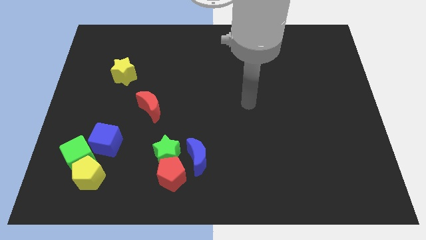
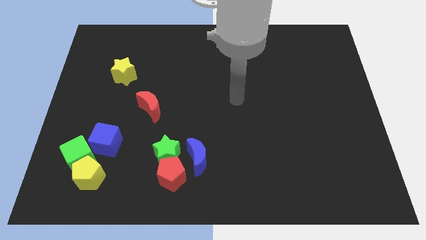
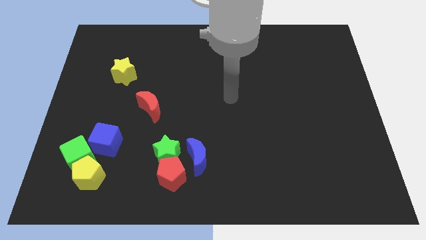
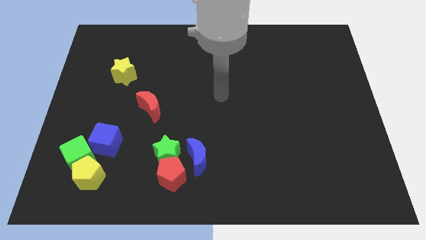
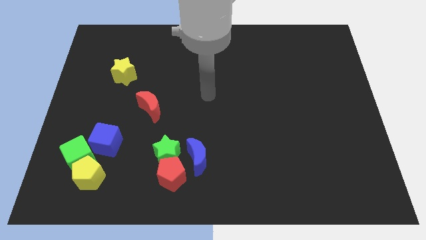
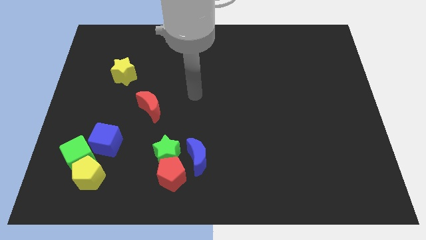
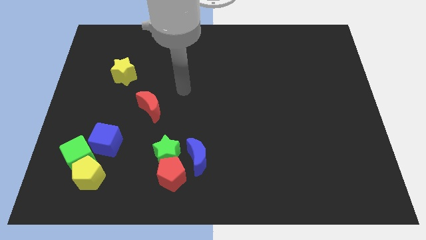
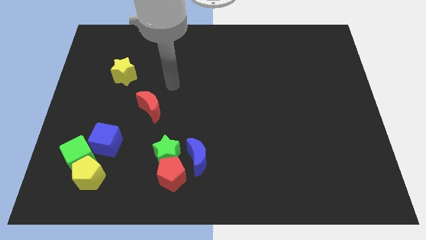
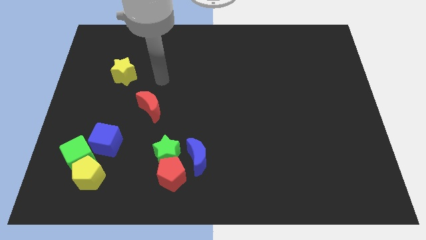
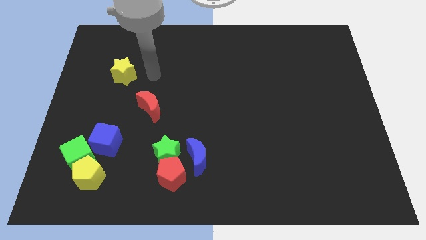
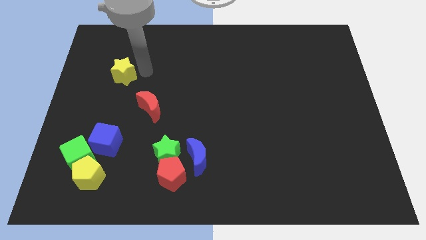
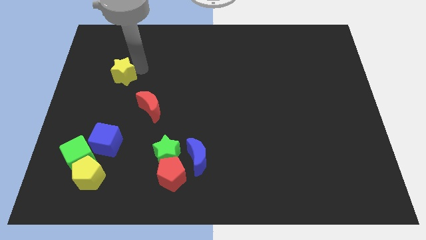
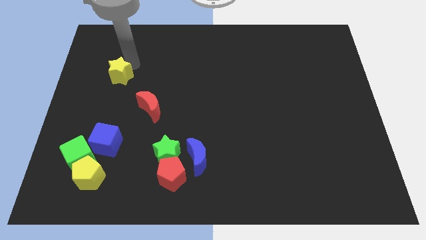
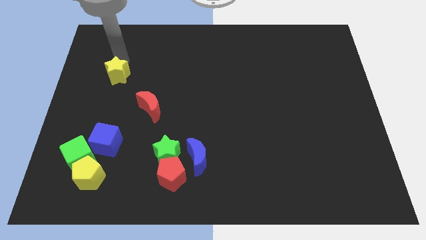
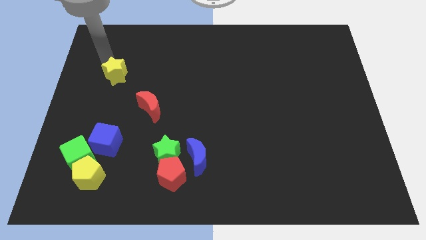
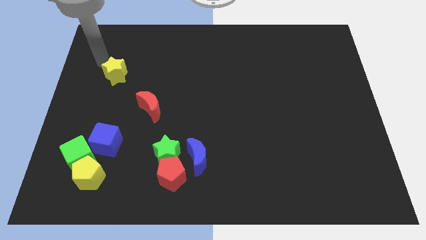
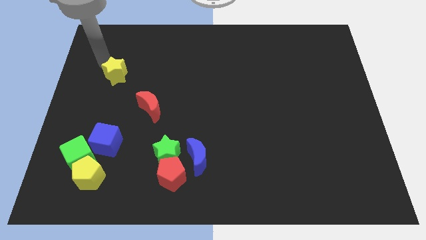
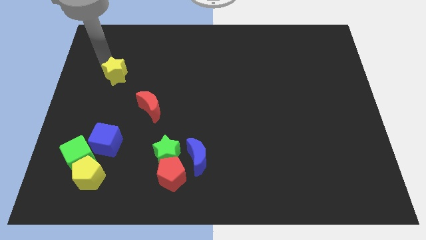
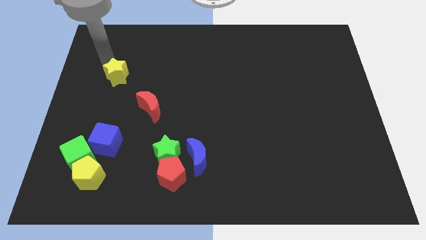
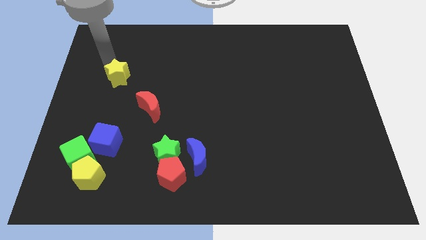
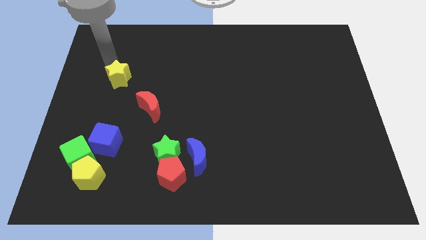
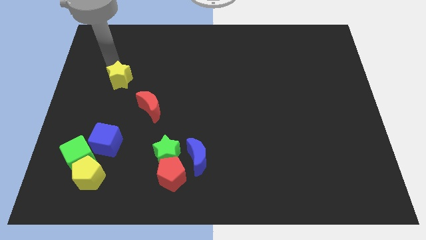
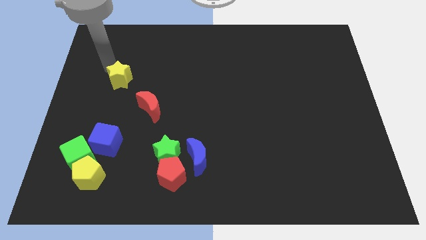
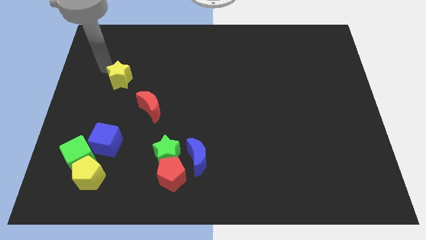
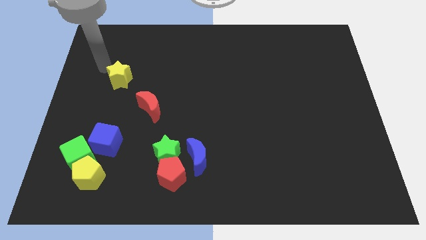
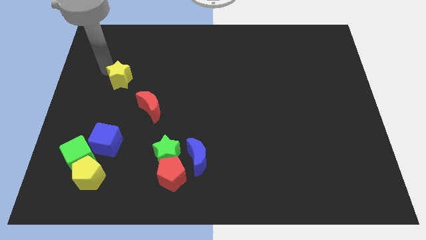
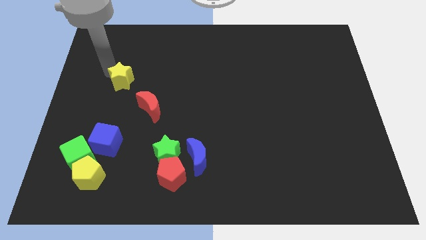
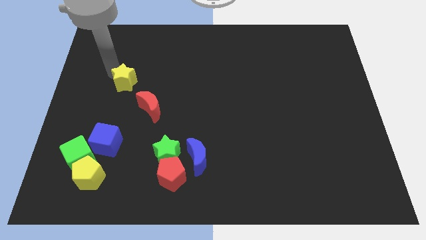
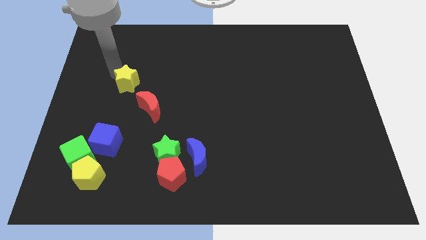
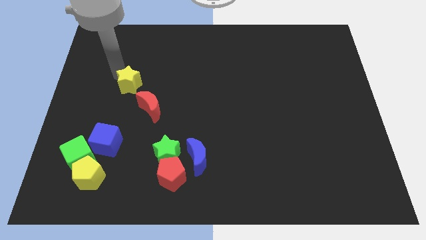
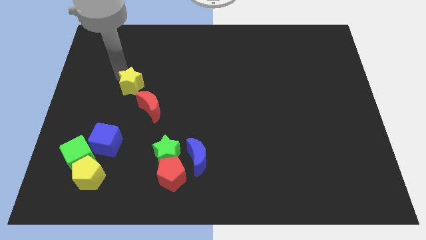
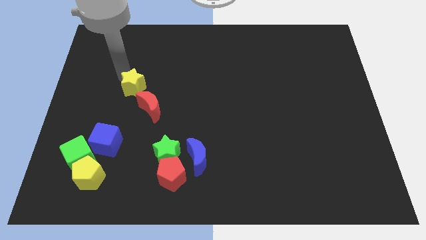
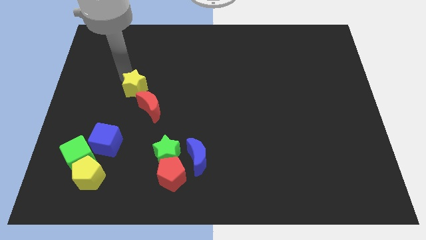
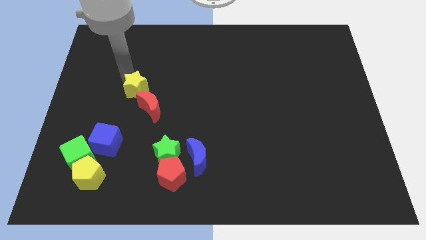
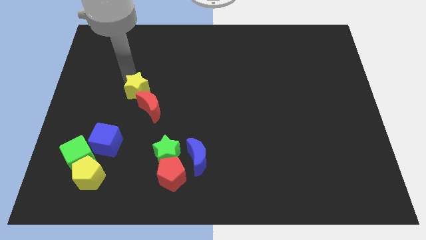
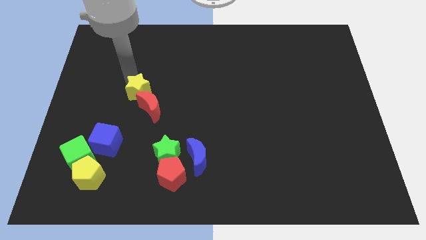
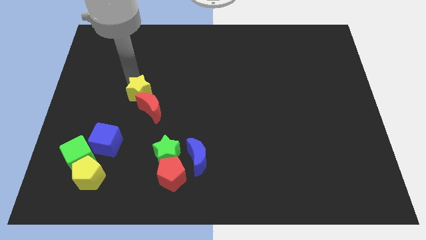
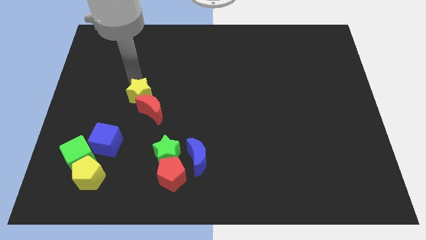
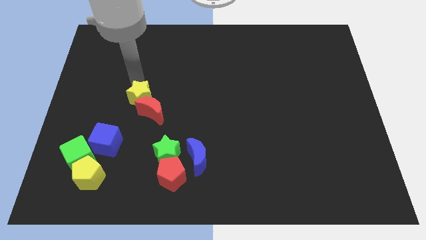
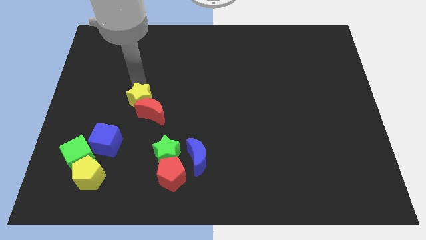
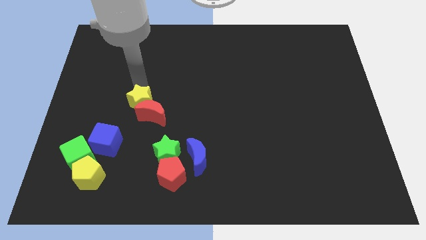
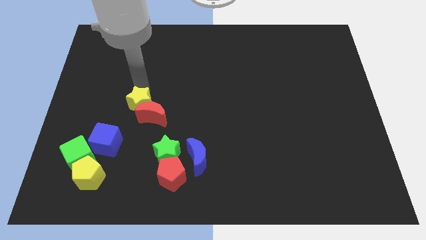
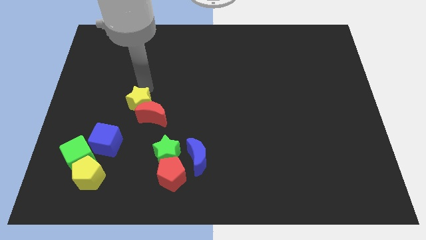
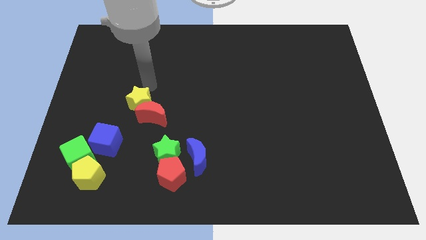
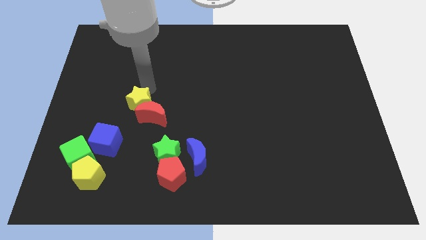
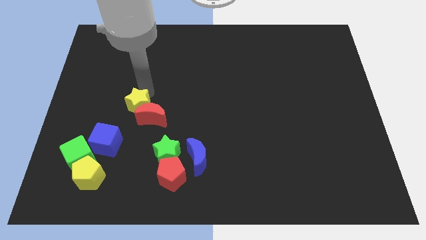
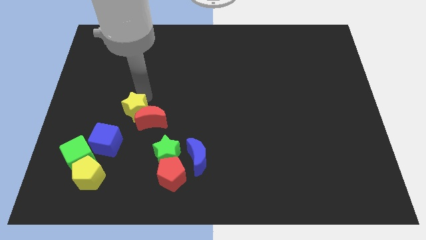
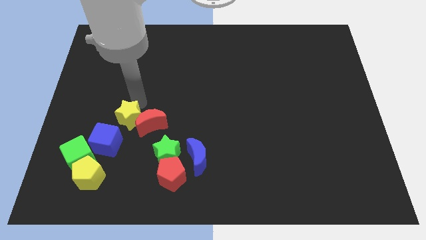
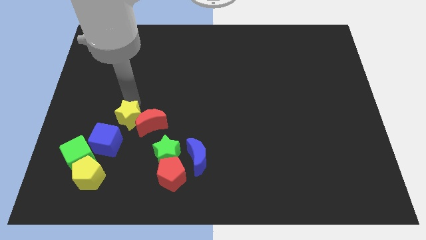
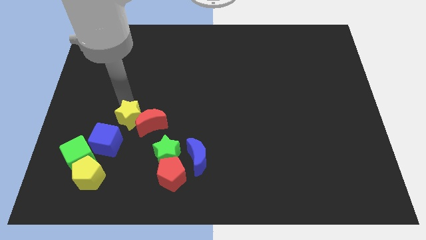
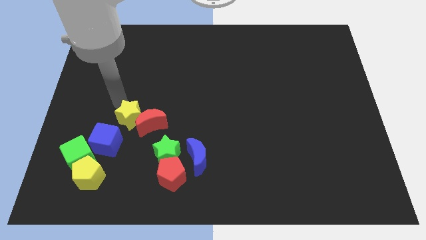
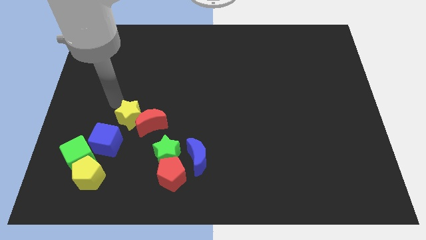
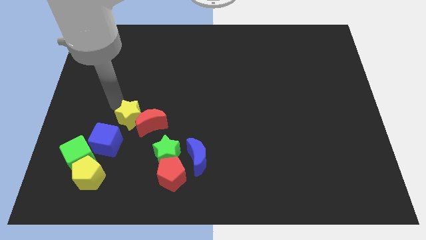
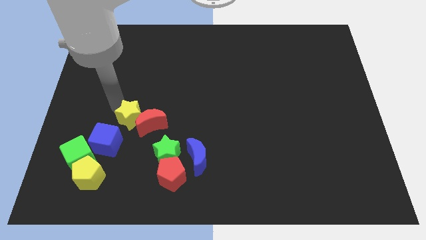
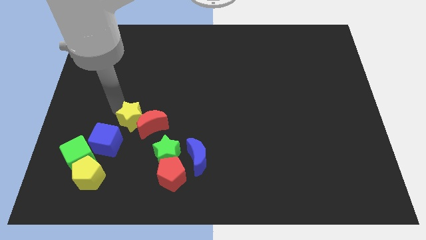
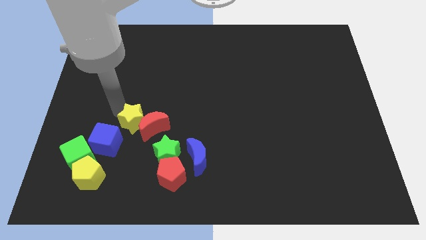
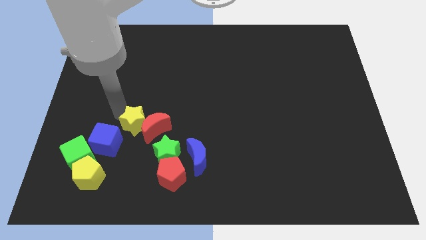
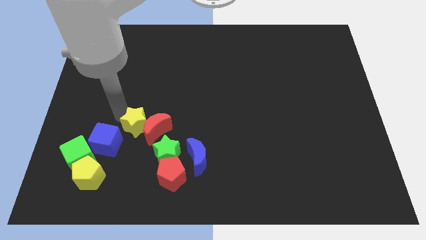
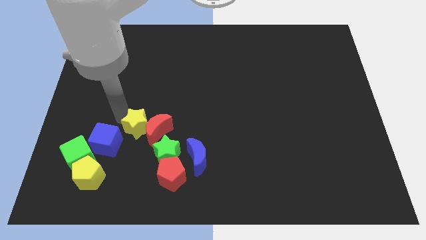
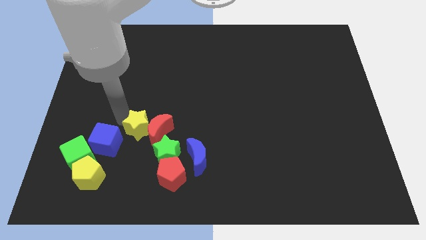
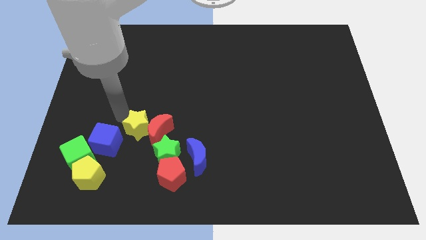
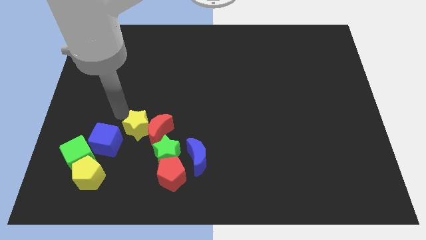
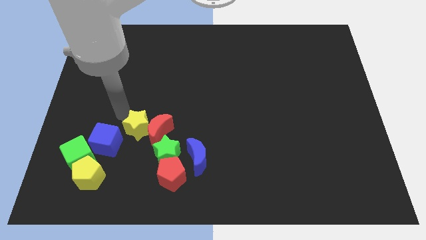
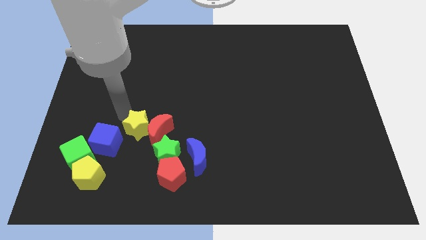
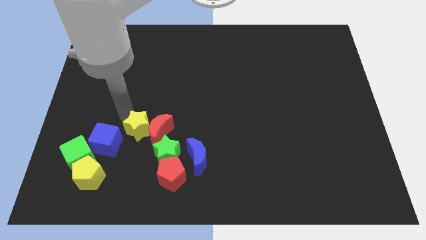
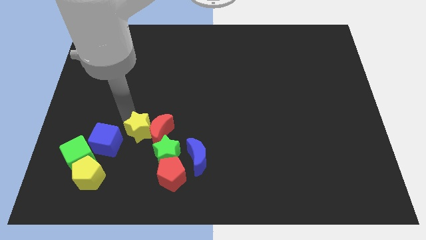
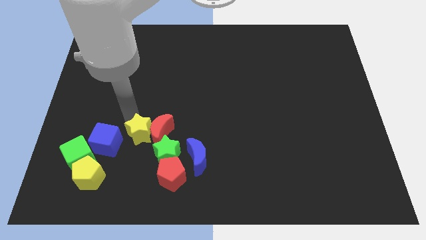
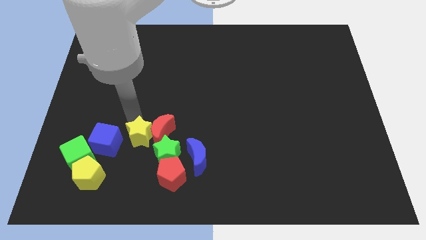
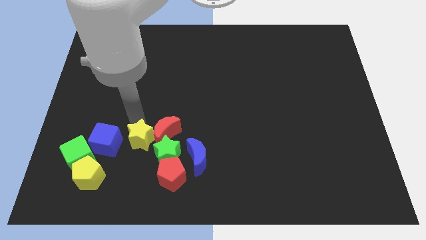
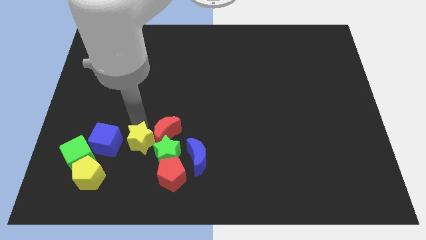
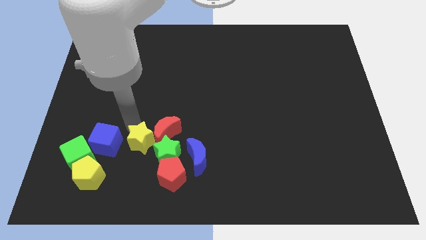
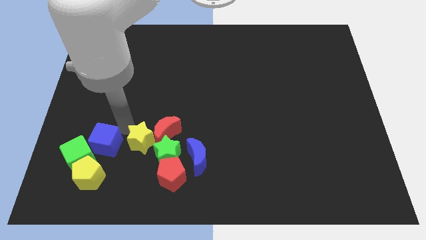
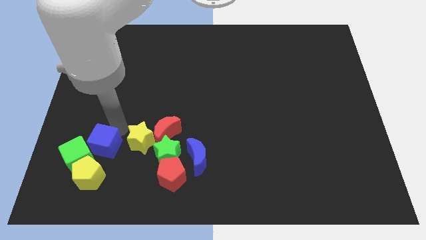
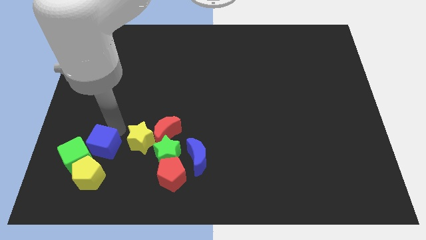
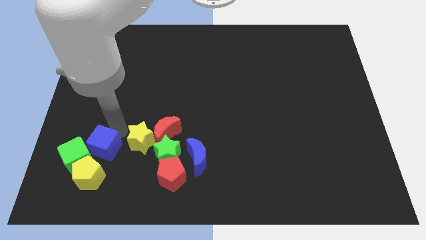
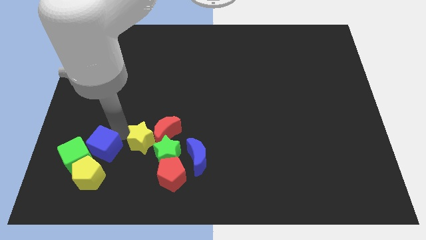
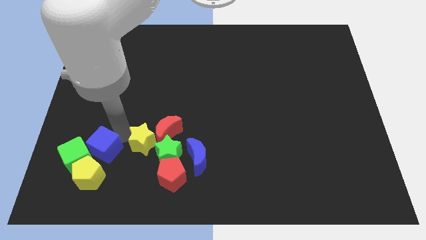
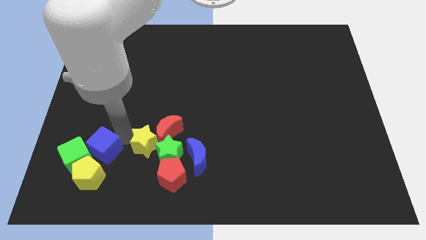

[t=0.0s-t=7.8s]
push the yellow star towards the green star

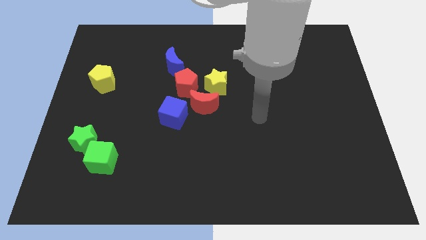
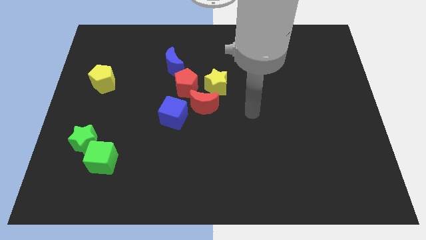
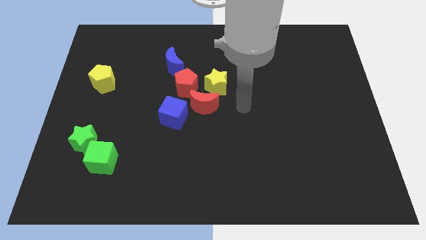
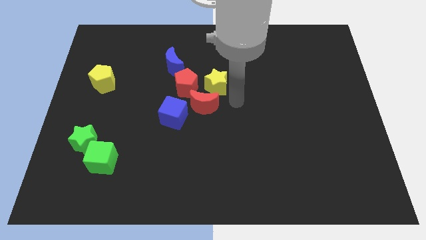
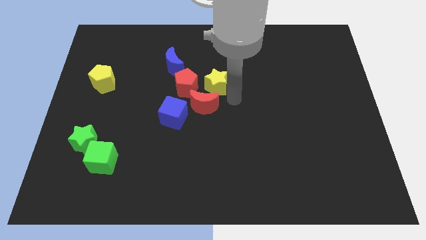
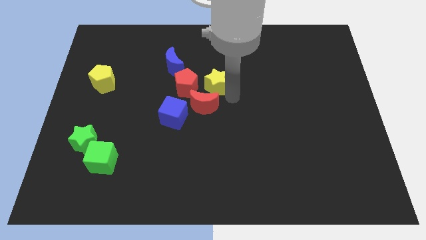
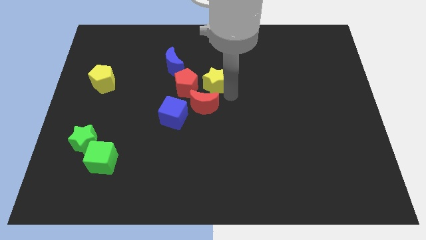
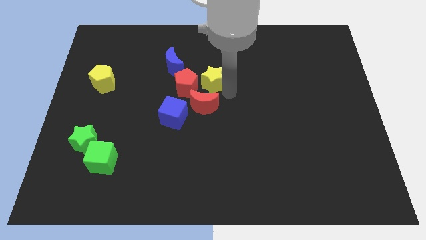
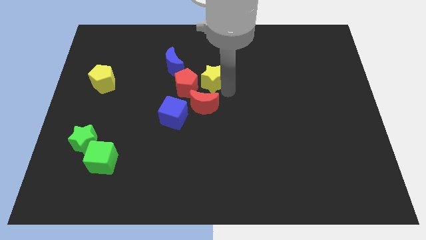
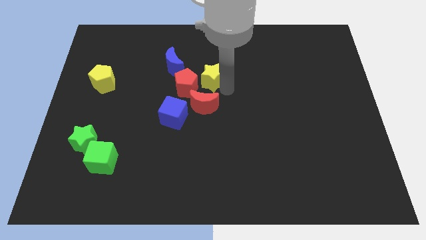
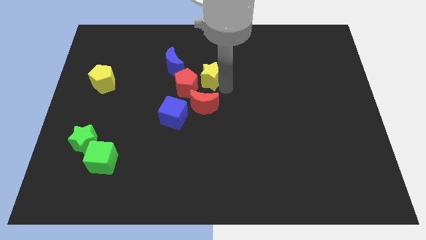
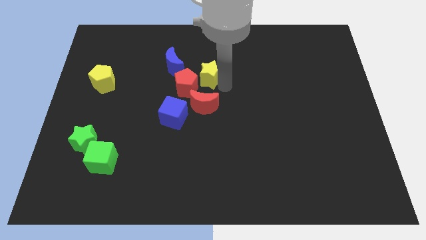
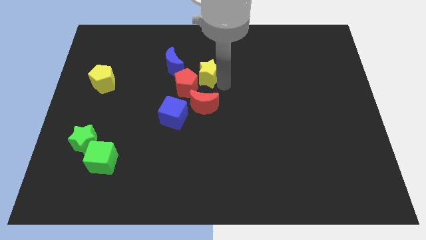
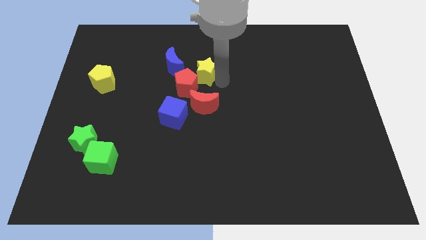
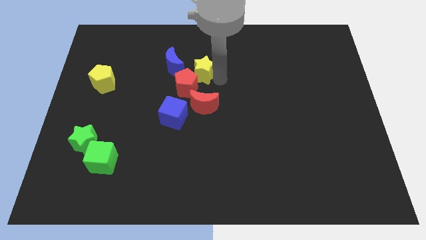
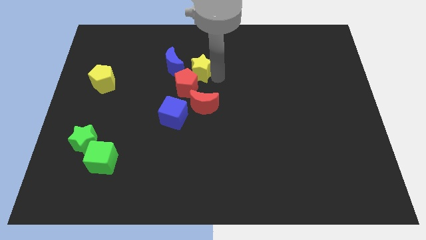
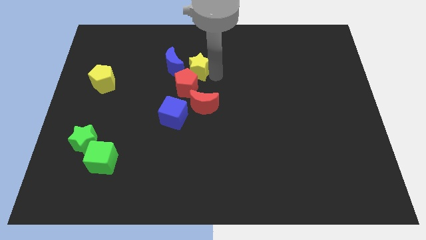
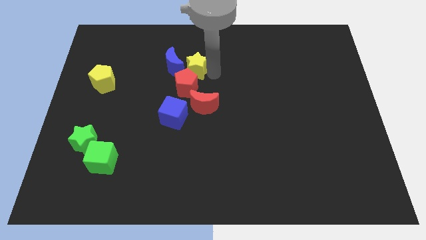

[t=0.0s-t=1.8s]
move the yellow star towards the blue moon
